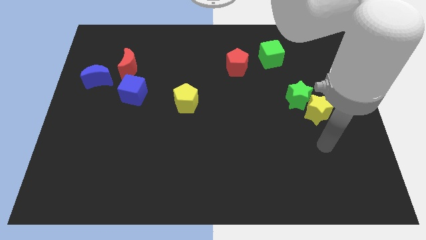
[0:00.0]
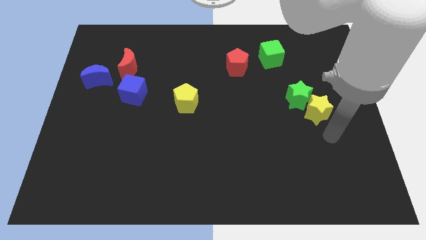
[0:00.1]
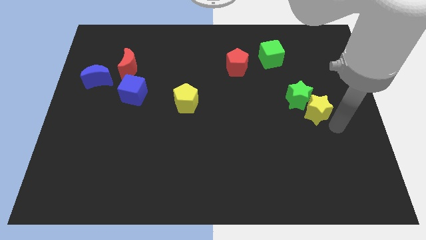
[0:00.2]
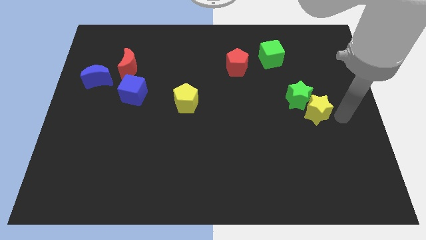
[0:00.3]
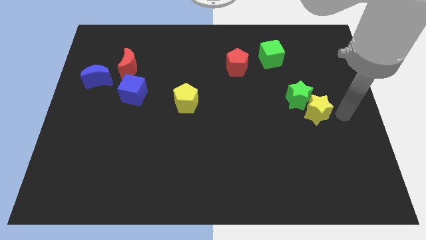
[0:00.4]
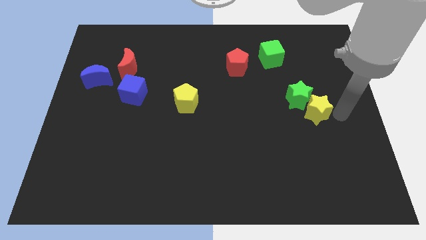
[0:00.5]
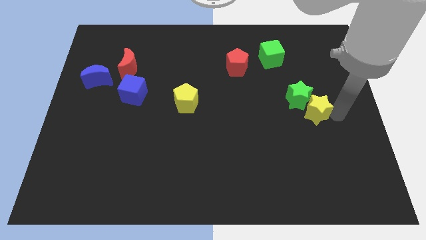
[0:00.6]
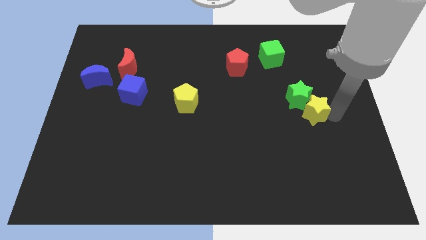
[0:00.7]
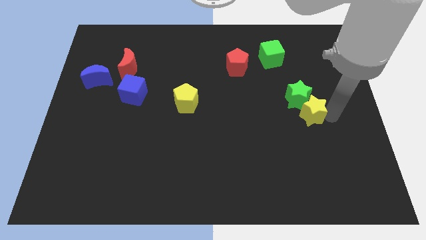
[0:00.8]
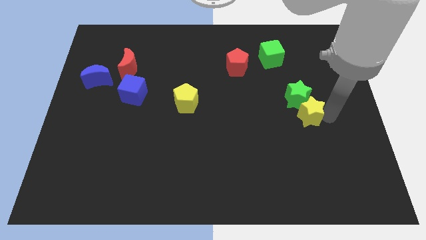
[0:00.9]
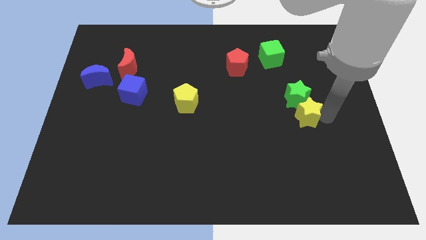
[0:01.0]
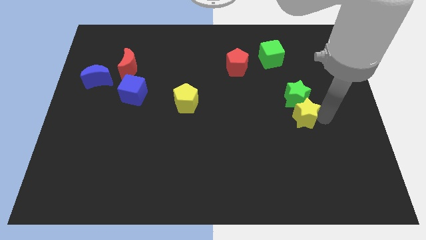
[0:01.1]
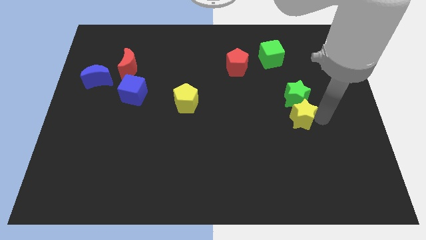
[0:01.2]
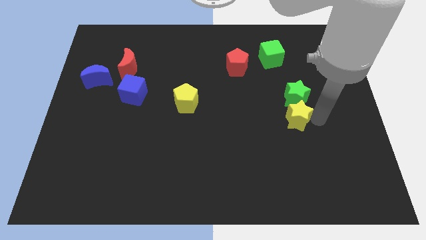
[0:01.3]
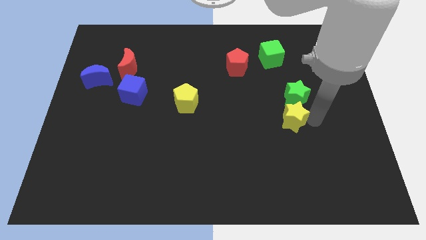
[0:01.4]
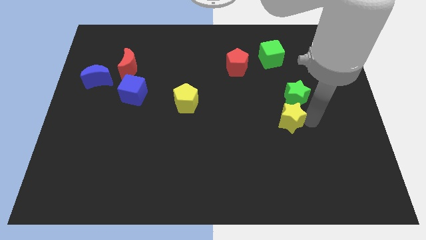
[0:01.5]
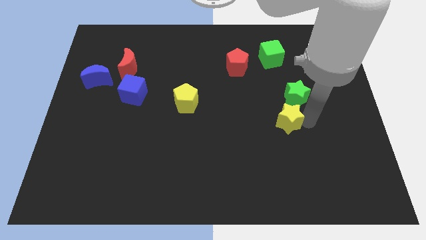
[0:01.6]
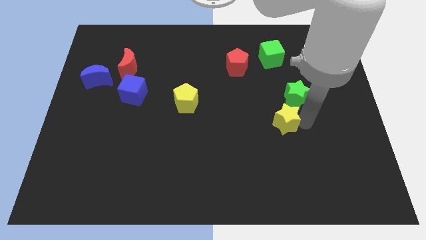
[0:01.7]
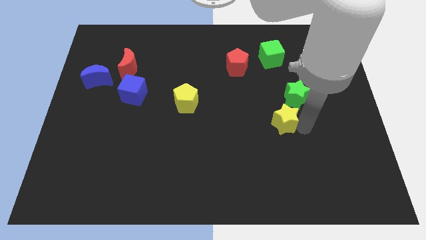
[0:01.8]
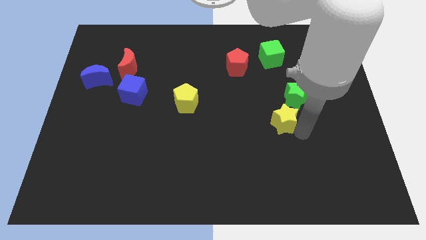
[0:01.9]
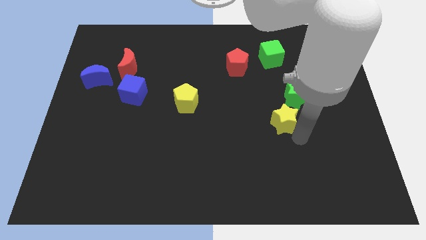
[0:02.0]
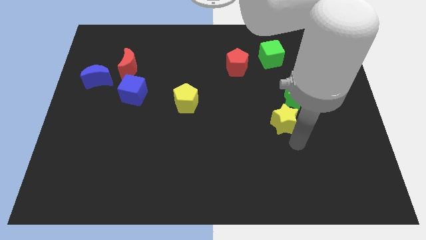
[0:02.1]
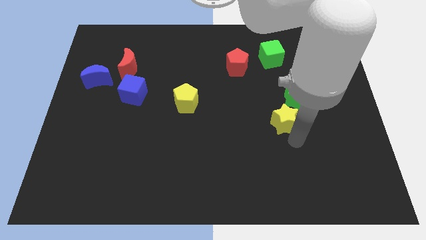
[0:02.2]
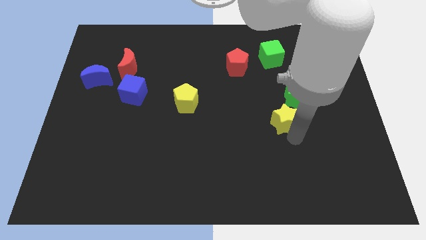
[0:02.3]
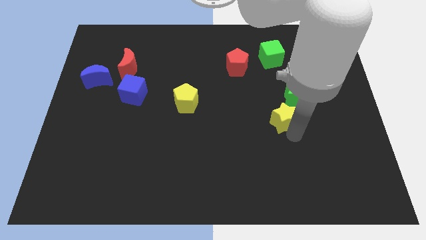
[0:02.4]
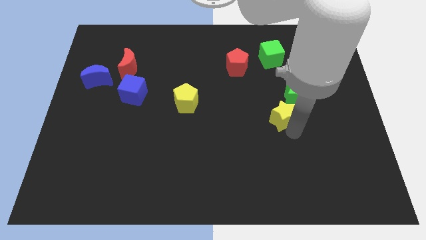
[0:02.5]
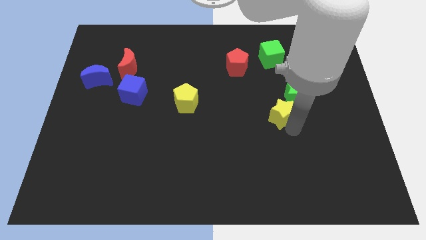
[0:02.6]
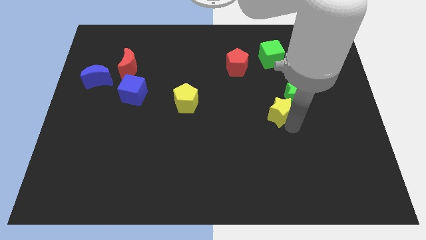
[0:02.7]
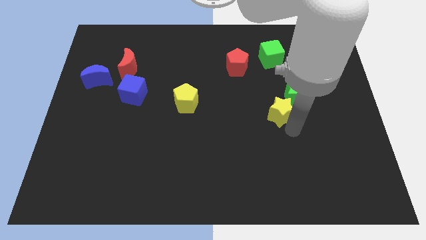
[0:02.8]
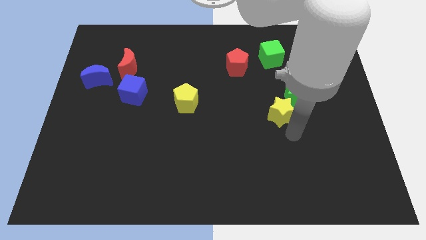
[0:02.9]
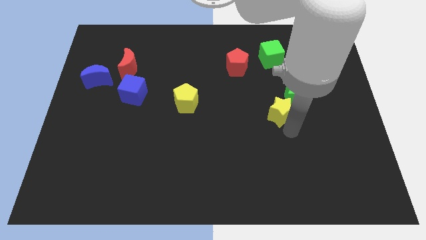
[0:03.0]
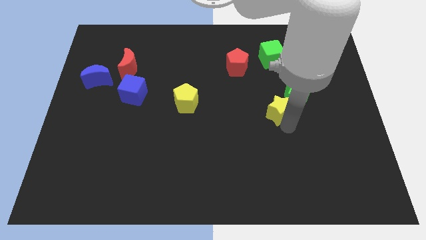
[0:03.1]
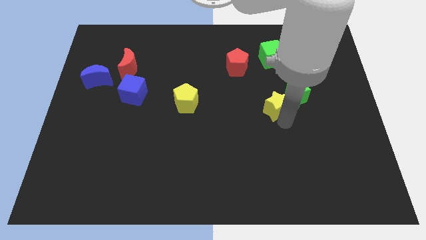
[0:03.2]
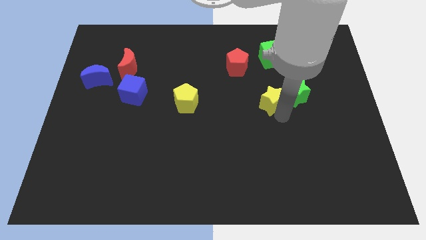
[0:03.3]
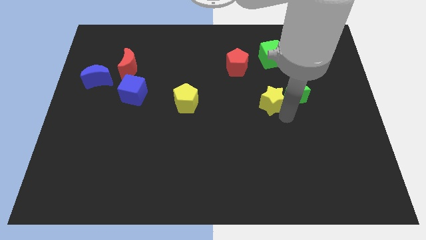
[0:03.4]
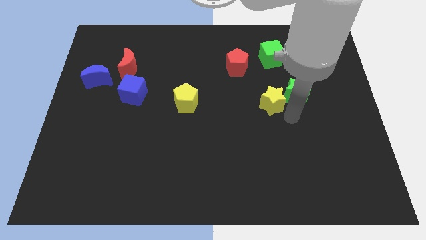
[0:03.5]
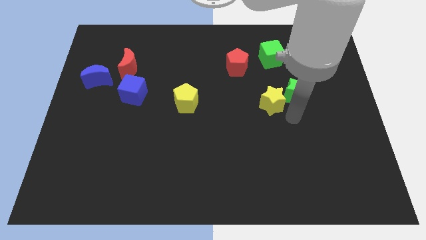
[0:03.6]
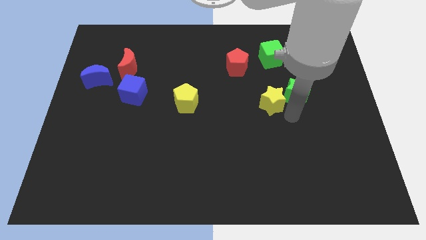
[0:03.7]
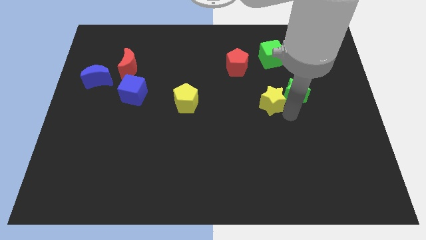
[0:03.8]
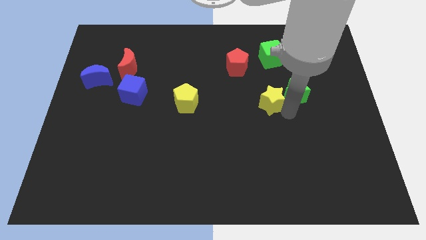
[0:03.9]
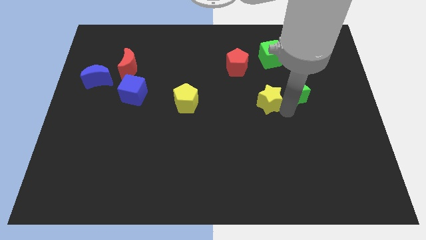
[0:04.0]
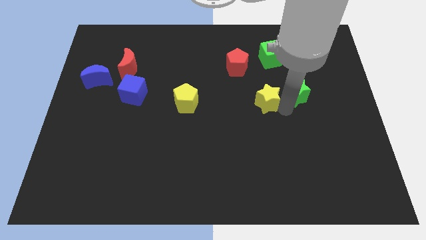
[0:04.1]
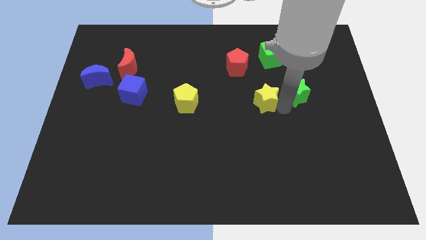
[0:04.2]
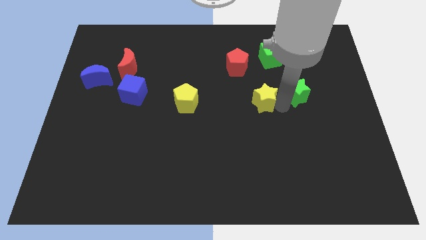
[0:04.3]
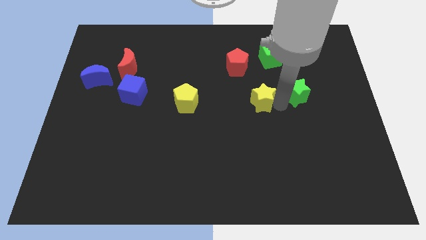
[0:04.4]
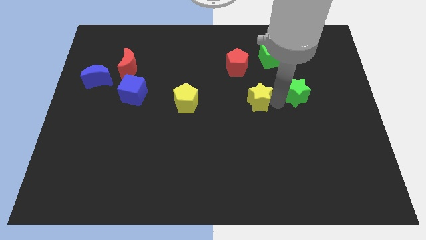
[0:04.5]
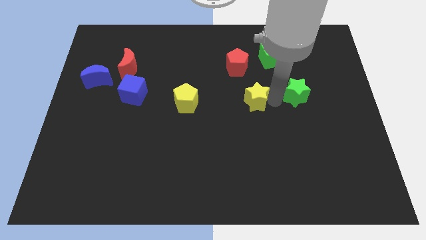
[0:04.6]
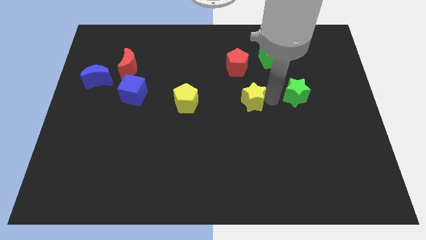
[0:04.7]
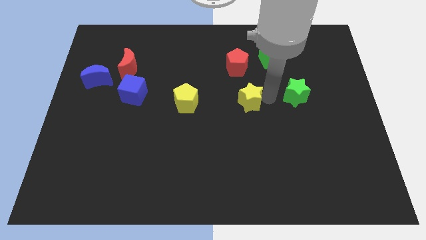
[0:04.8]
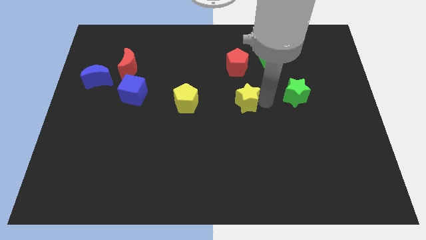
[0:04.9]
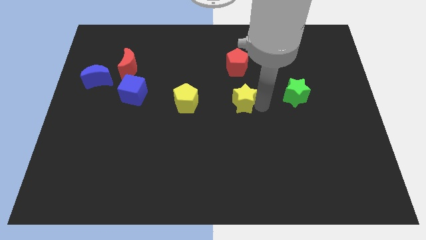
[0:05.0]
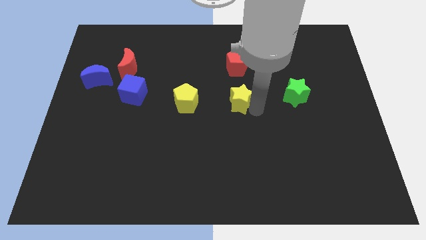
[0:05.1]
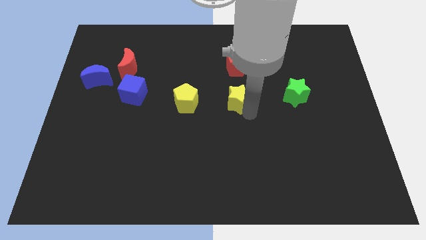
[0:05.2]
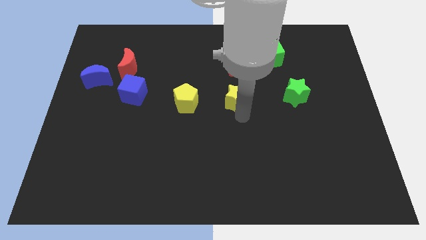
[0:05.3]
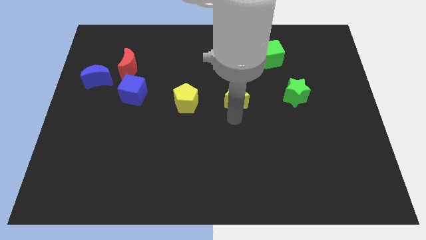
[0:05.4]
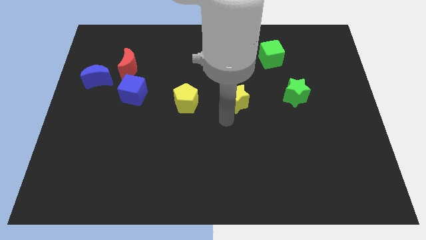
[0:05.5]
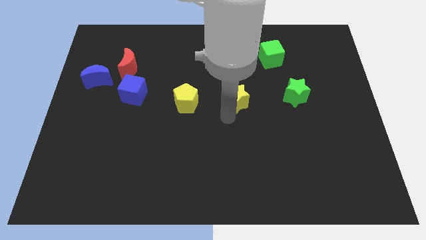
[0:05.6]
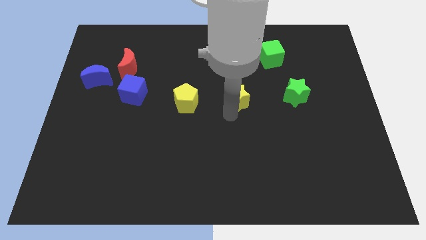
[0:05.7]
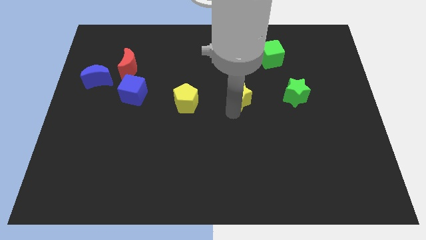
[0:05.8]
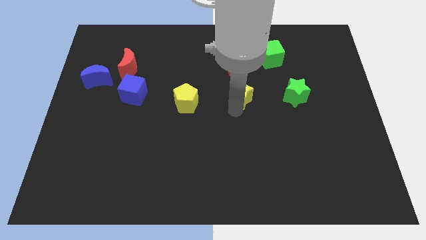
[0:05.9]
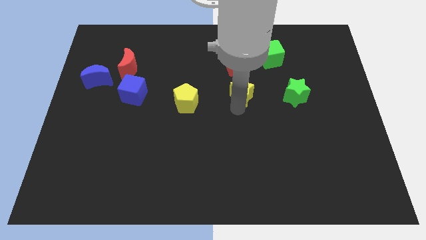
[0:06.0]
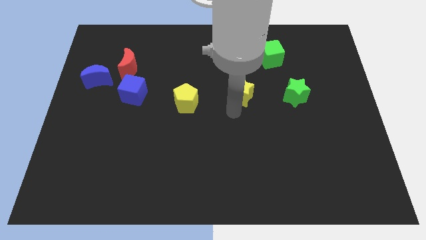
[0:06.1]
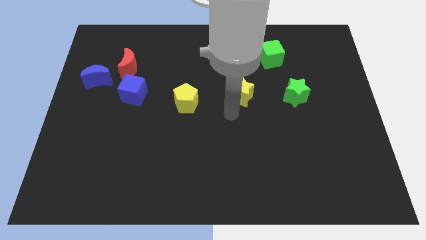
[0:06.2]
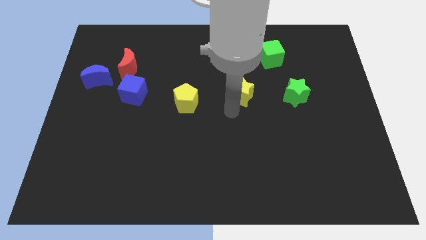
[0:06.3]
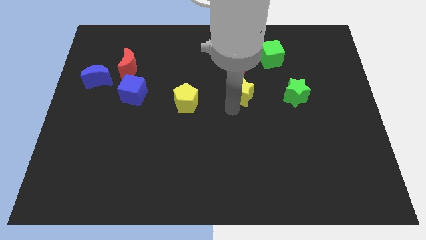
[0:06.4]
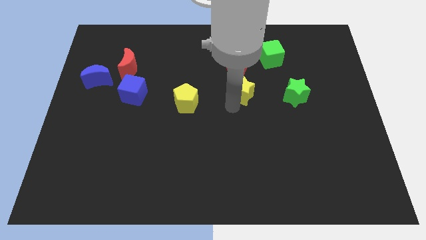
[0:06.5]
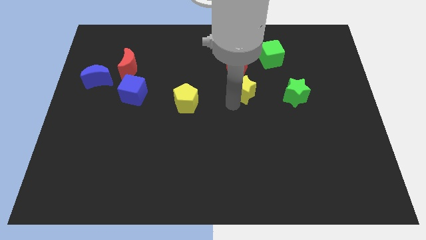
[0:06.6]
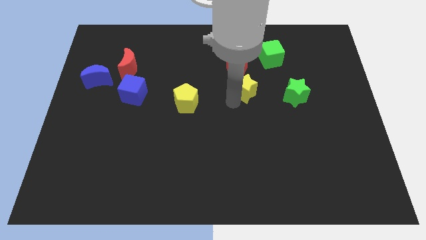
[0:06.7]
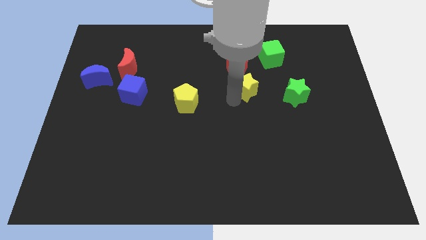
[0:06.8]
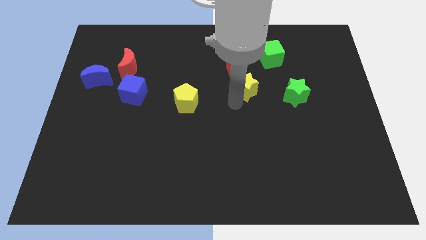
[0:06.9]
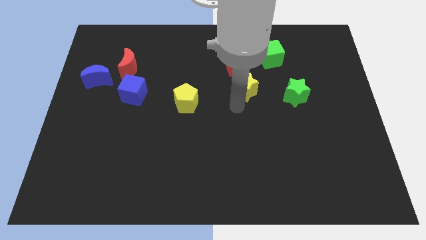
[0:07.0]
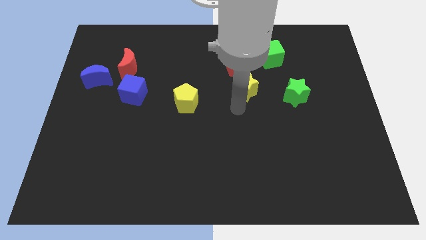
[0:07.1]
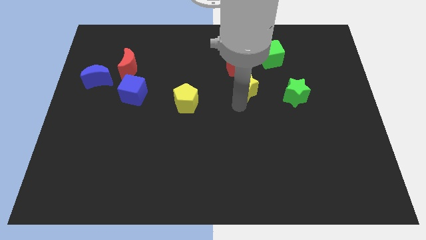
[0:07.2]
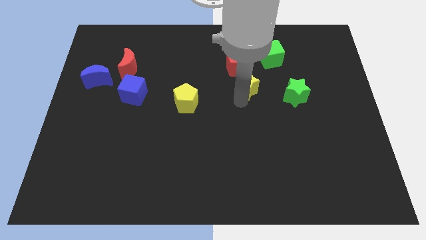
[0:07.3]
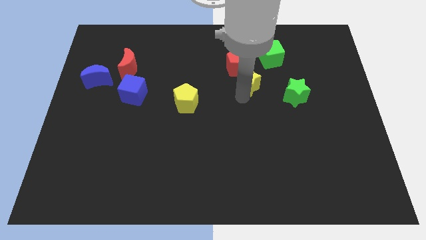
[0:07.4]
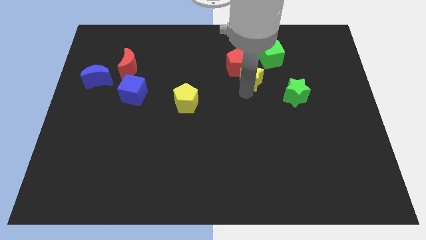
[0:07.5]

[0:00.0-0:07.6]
move the yellow star next to the red pentagon
